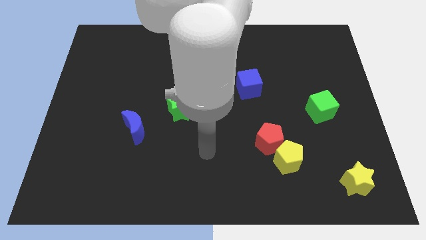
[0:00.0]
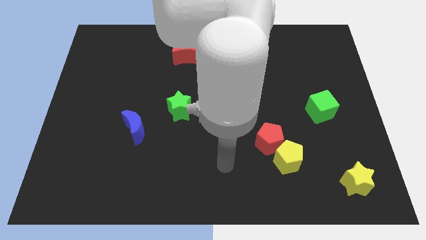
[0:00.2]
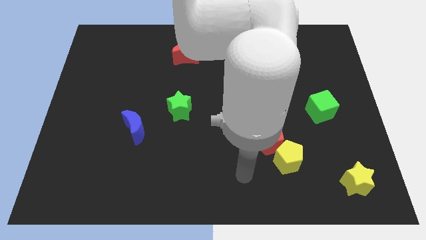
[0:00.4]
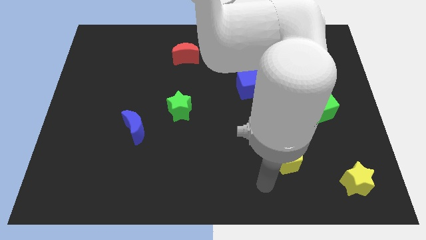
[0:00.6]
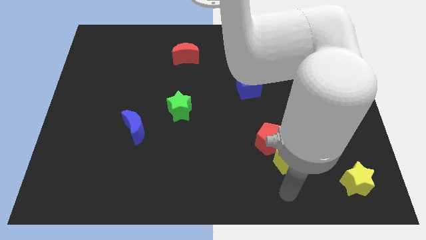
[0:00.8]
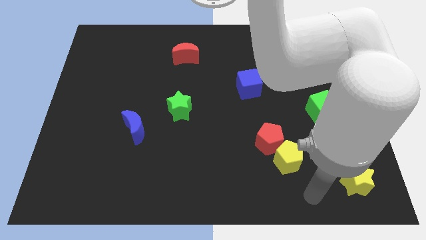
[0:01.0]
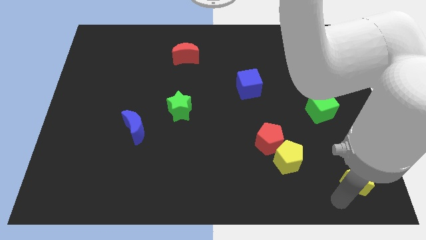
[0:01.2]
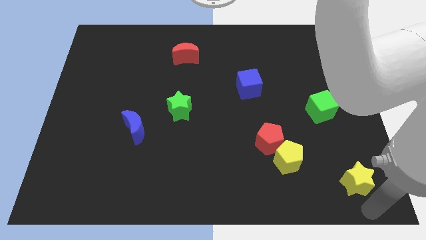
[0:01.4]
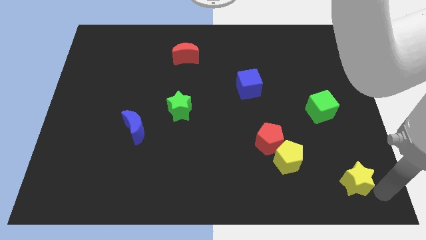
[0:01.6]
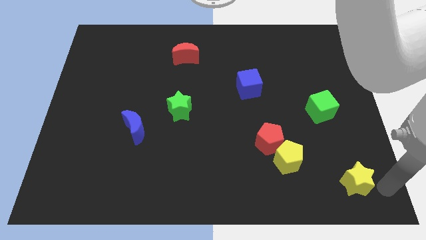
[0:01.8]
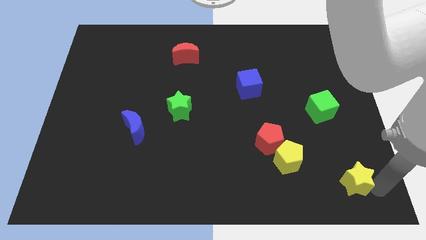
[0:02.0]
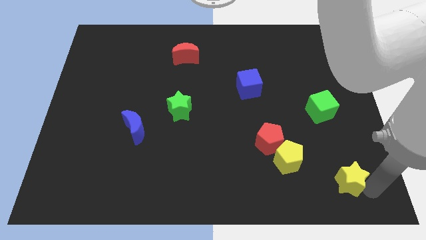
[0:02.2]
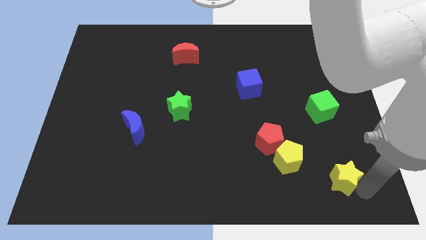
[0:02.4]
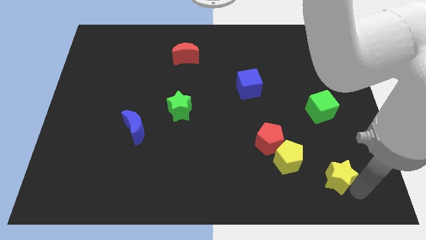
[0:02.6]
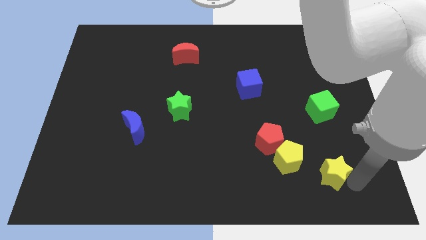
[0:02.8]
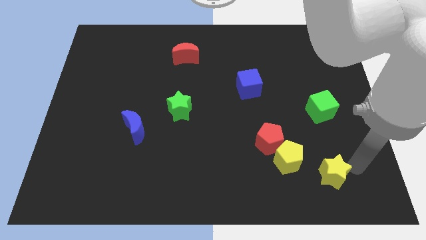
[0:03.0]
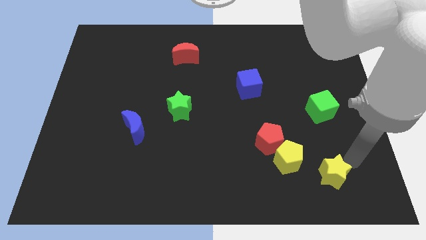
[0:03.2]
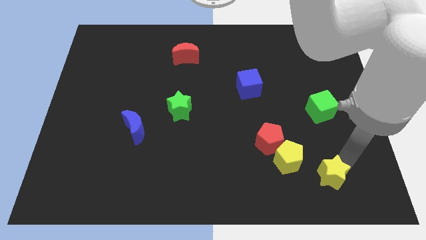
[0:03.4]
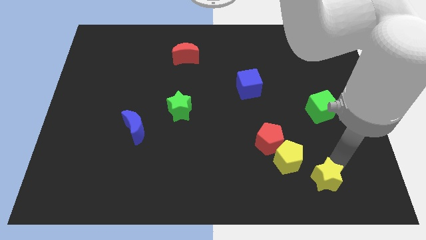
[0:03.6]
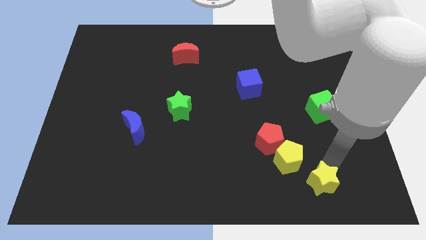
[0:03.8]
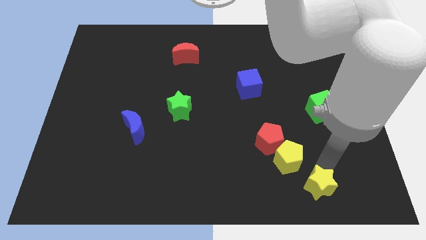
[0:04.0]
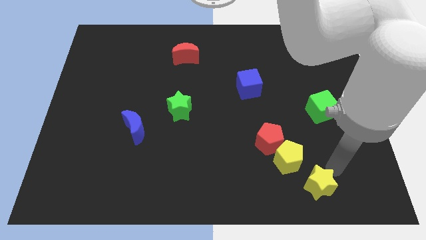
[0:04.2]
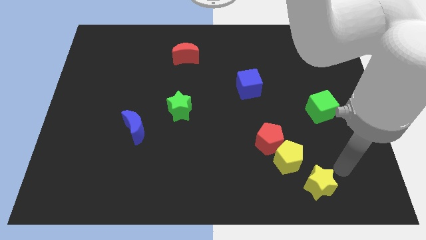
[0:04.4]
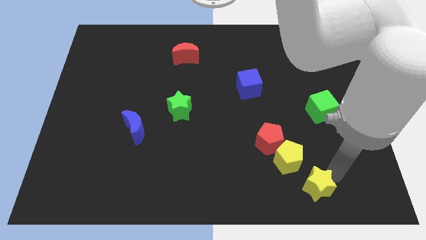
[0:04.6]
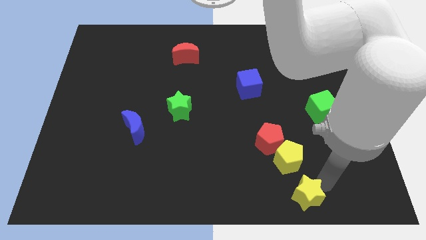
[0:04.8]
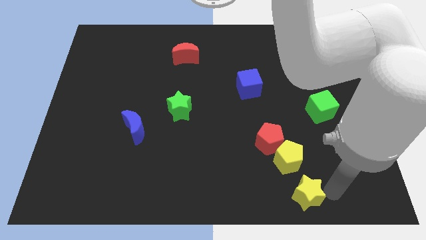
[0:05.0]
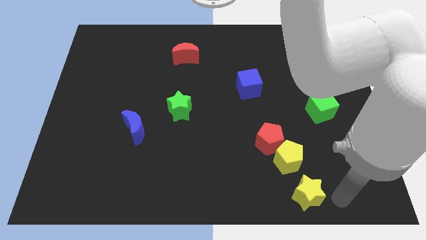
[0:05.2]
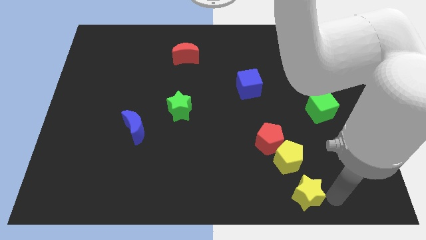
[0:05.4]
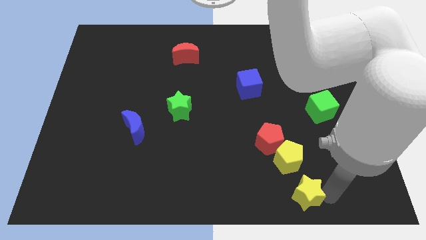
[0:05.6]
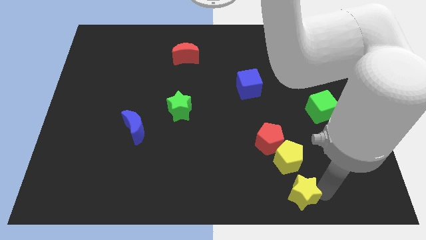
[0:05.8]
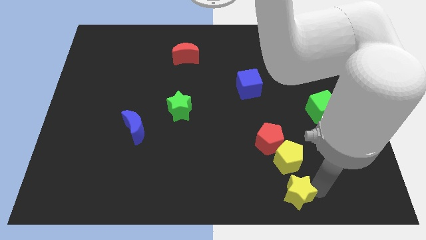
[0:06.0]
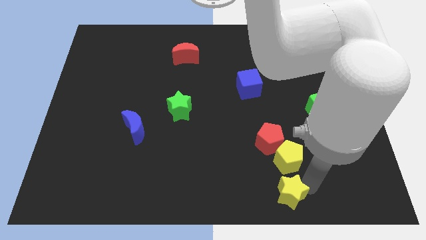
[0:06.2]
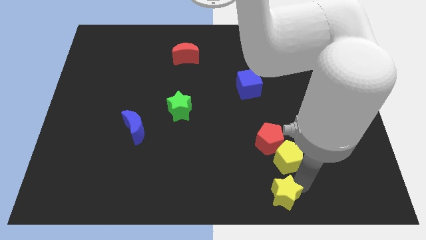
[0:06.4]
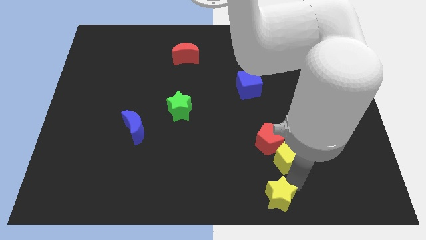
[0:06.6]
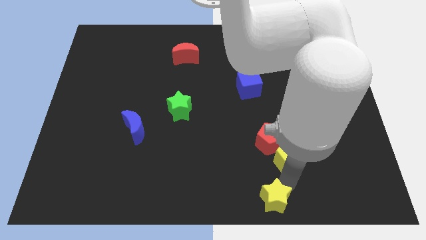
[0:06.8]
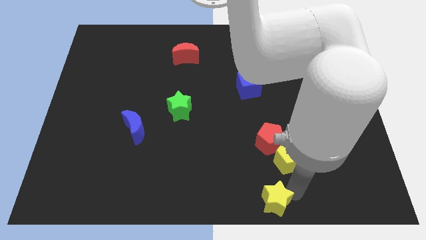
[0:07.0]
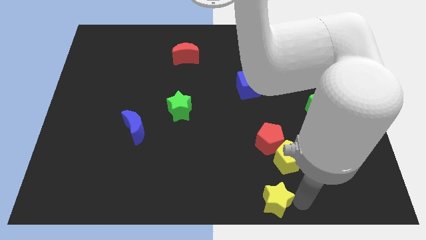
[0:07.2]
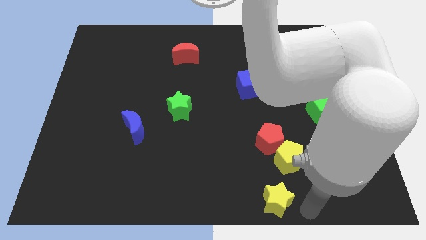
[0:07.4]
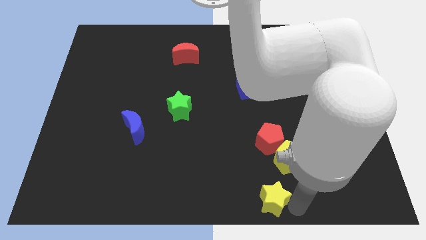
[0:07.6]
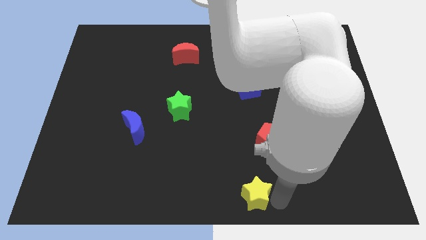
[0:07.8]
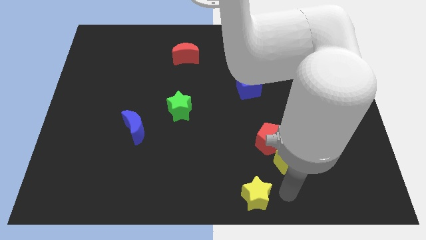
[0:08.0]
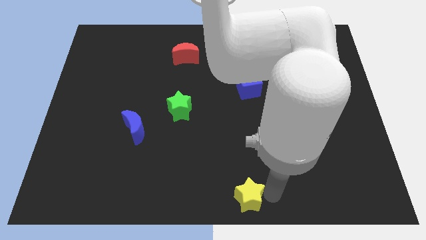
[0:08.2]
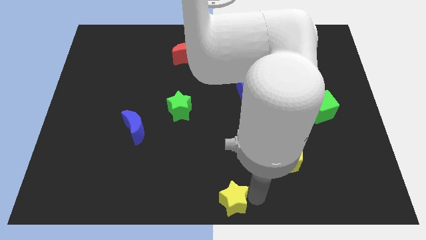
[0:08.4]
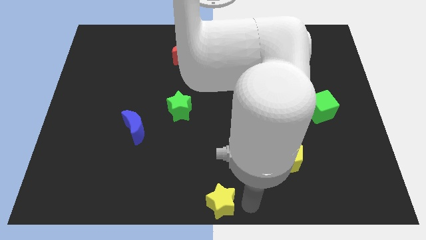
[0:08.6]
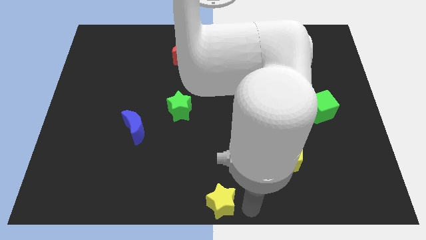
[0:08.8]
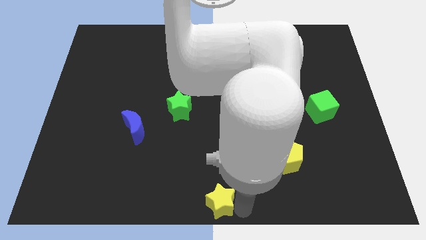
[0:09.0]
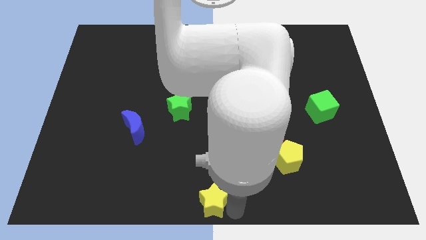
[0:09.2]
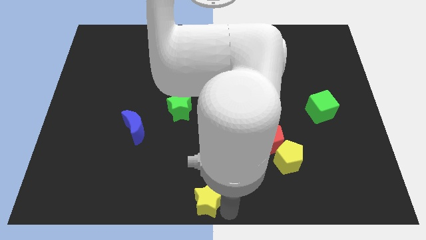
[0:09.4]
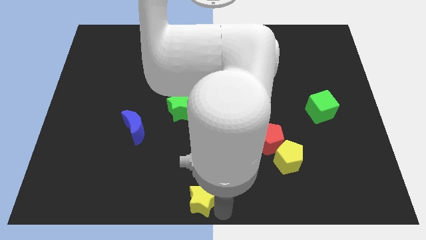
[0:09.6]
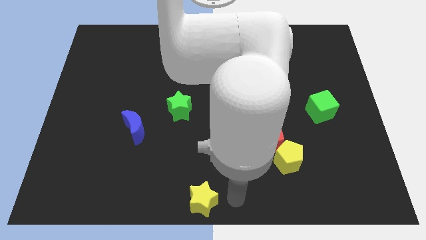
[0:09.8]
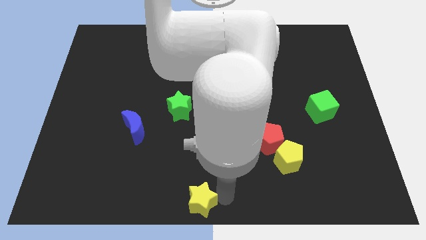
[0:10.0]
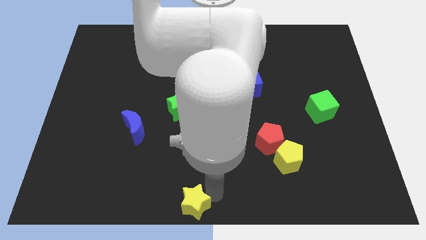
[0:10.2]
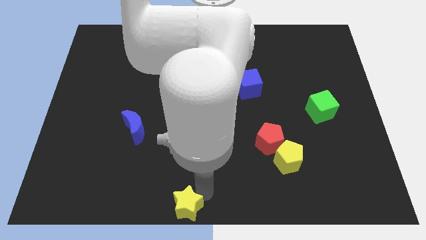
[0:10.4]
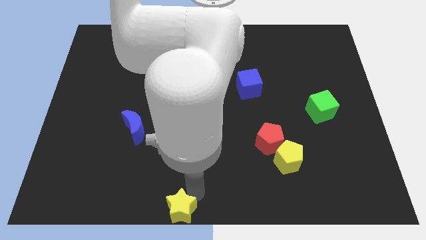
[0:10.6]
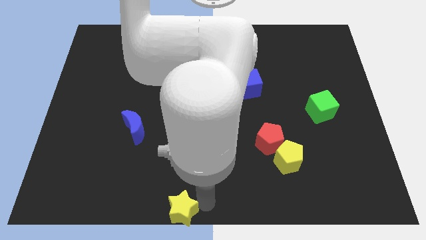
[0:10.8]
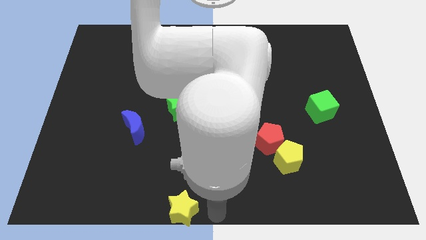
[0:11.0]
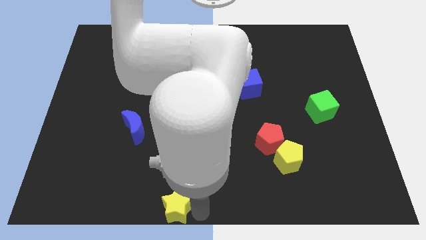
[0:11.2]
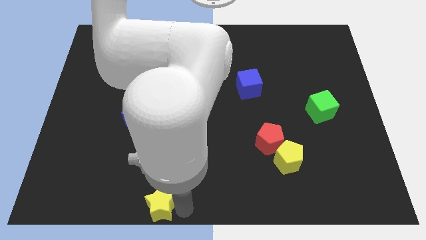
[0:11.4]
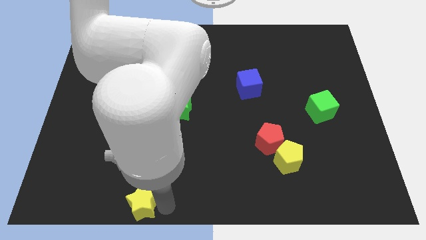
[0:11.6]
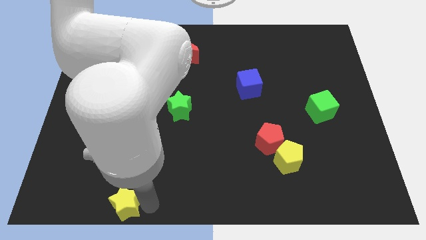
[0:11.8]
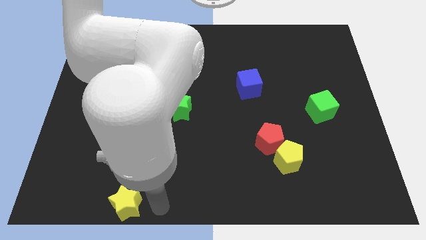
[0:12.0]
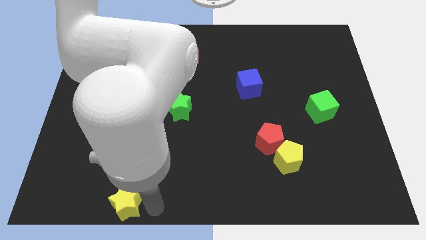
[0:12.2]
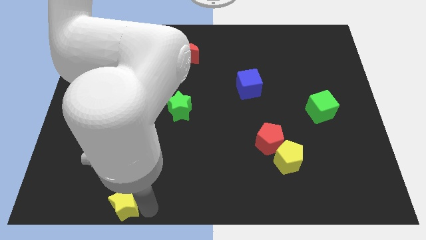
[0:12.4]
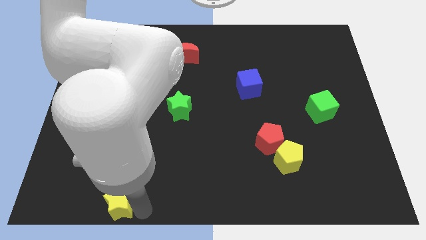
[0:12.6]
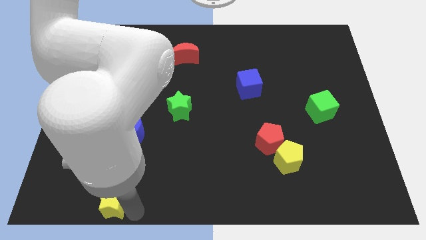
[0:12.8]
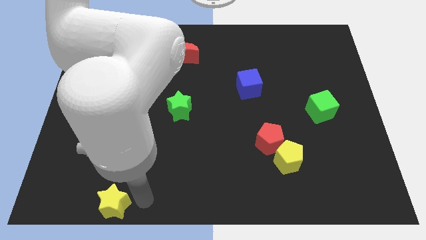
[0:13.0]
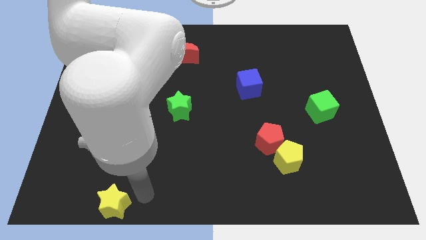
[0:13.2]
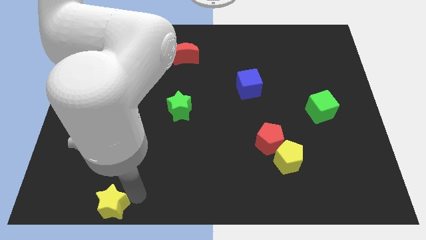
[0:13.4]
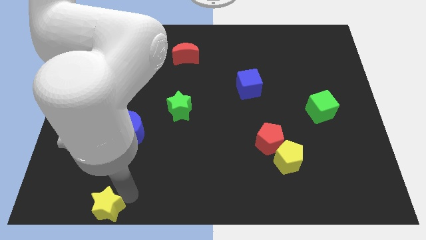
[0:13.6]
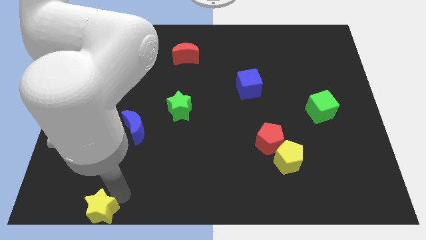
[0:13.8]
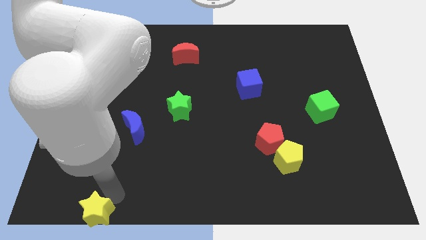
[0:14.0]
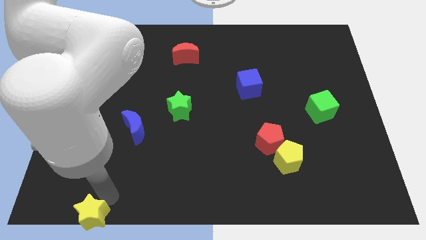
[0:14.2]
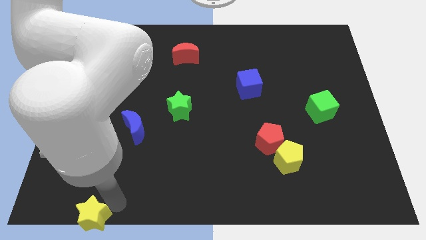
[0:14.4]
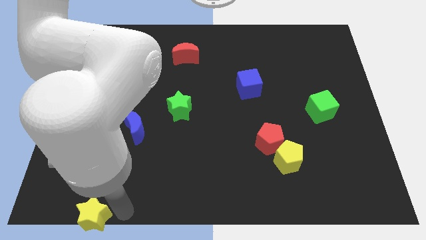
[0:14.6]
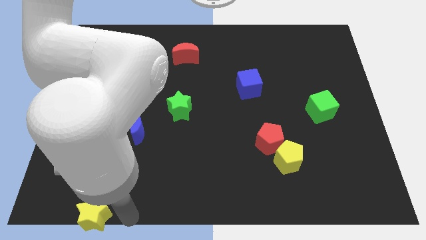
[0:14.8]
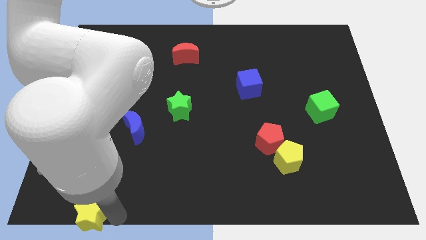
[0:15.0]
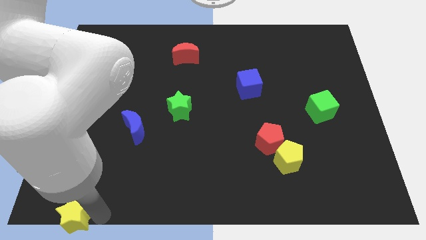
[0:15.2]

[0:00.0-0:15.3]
push the yellow star to the bottom left corner
